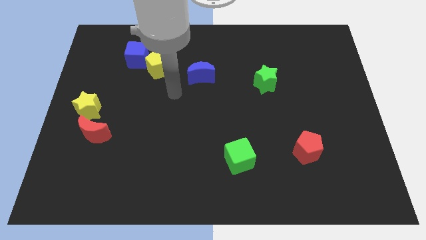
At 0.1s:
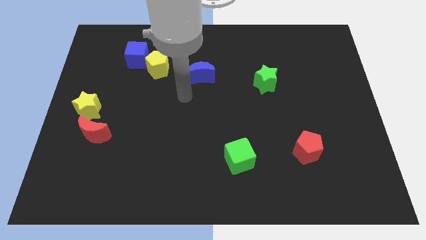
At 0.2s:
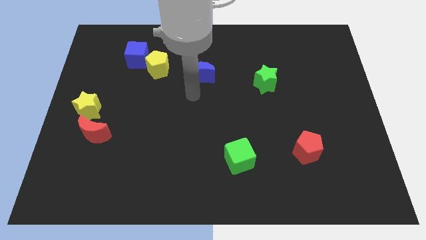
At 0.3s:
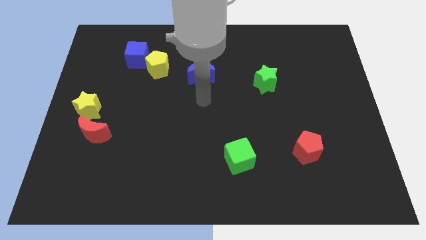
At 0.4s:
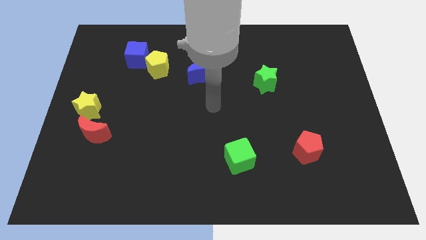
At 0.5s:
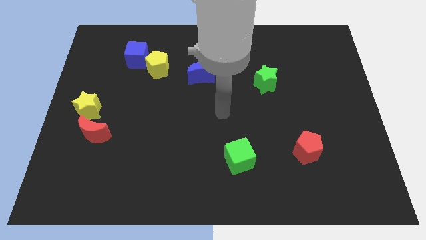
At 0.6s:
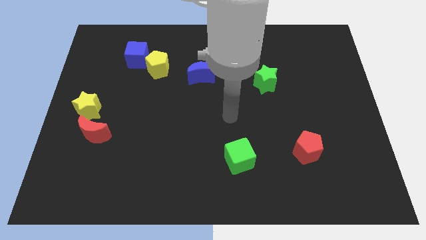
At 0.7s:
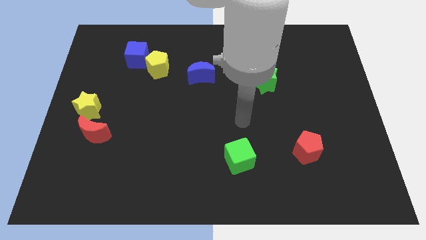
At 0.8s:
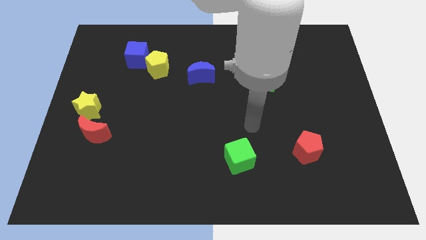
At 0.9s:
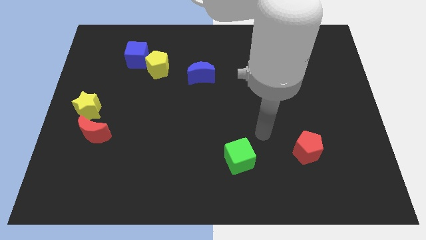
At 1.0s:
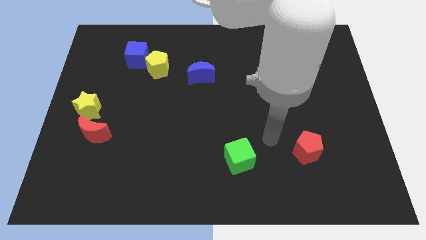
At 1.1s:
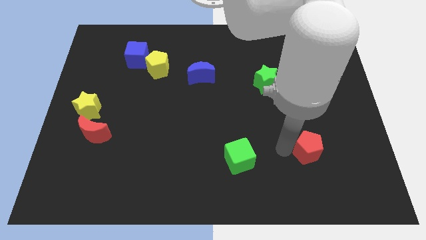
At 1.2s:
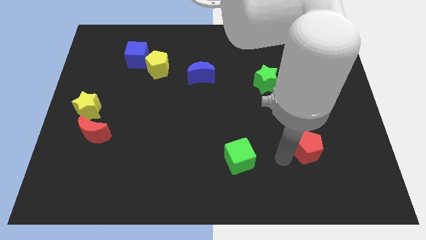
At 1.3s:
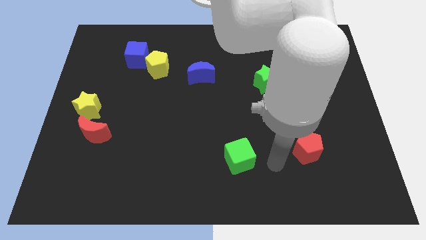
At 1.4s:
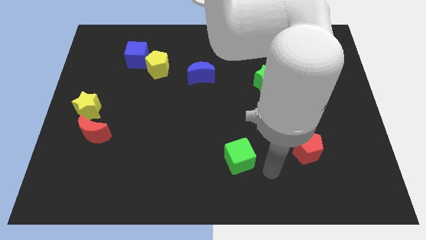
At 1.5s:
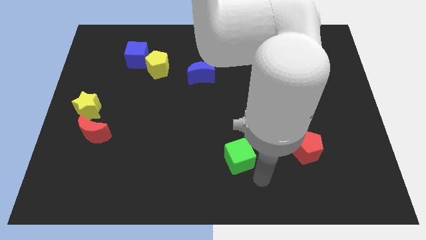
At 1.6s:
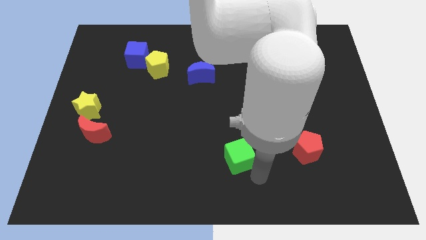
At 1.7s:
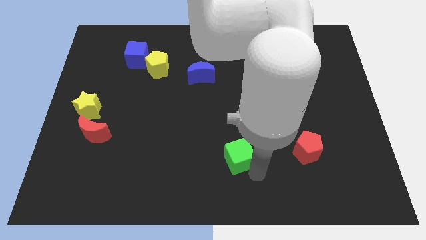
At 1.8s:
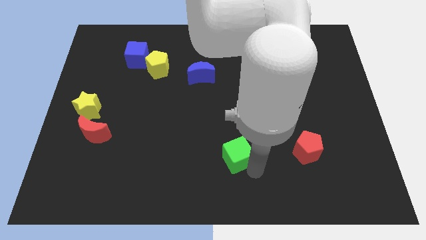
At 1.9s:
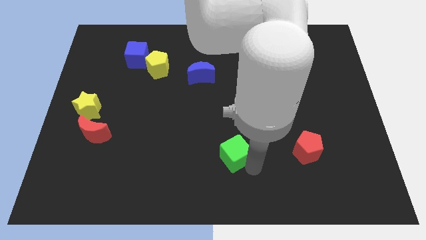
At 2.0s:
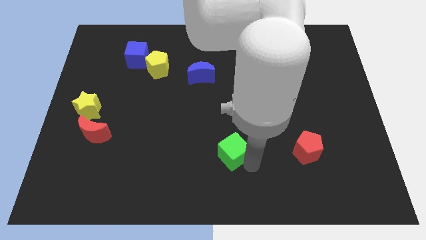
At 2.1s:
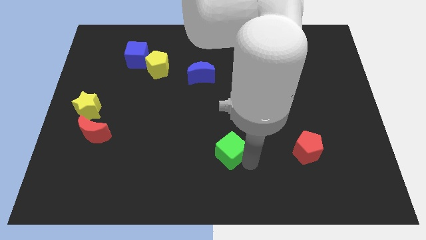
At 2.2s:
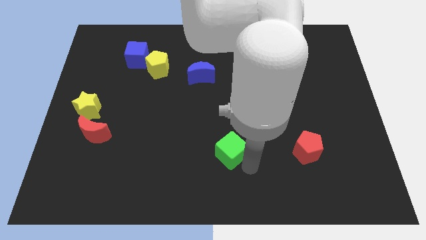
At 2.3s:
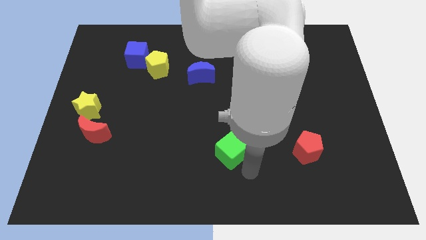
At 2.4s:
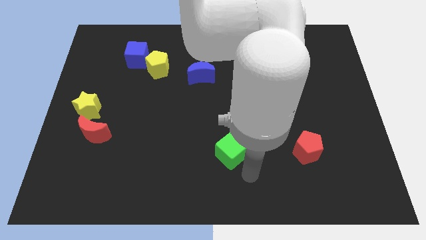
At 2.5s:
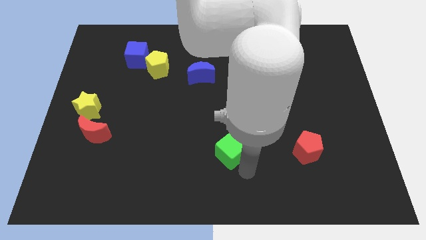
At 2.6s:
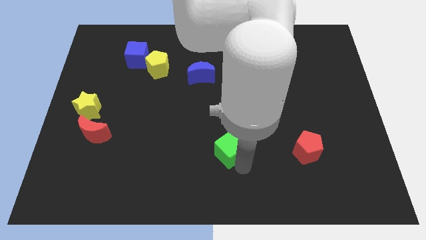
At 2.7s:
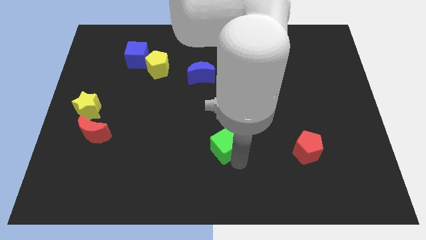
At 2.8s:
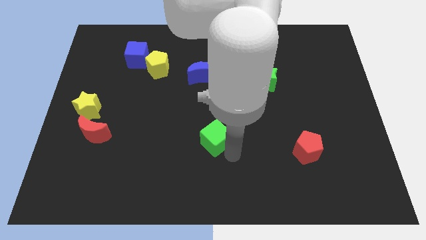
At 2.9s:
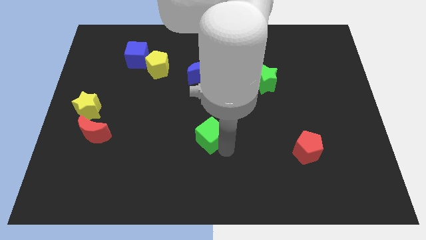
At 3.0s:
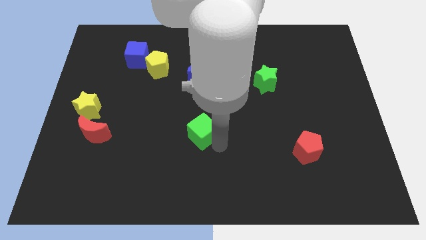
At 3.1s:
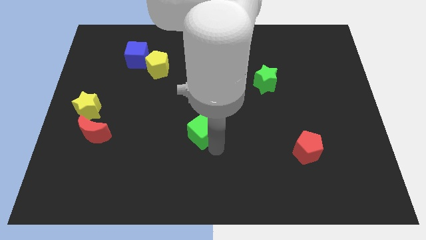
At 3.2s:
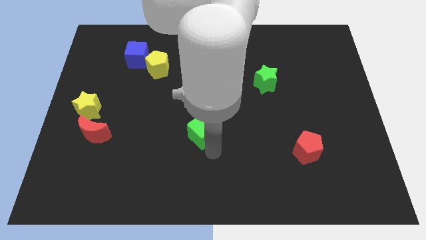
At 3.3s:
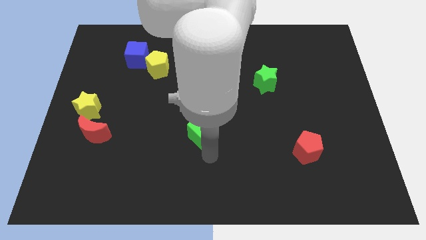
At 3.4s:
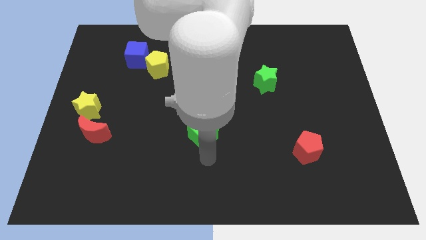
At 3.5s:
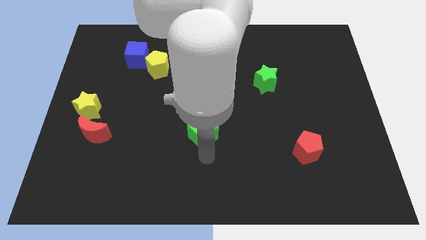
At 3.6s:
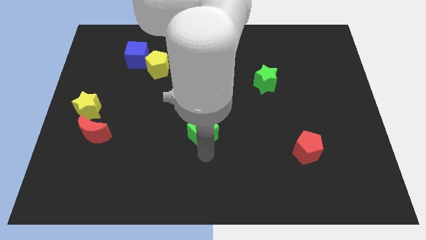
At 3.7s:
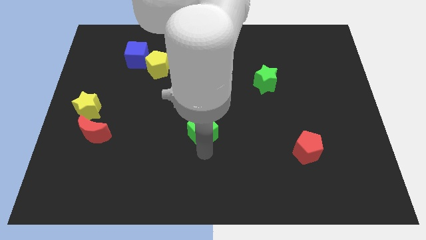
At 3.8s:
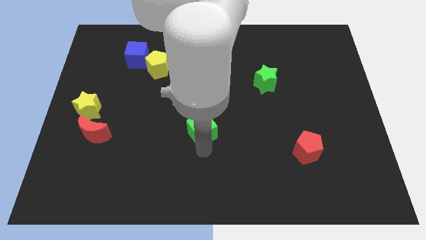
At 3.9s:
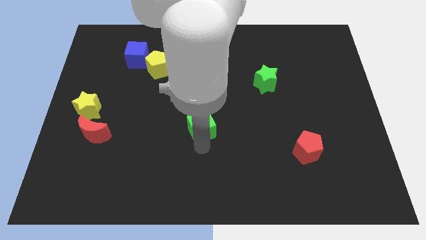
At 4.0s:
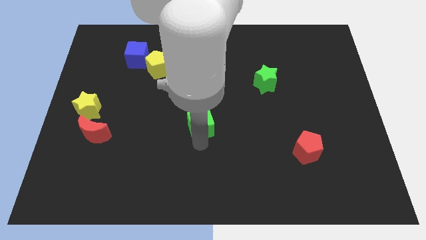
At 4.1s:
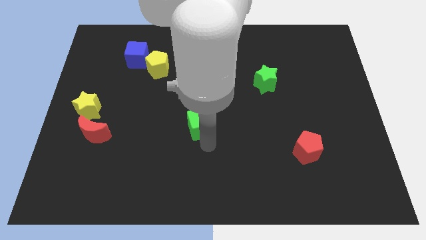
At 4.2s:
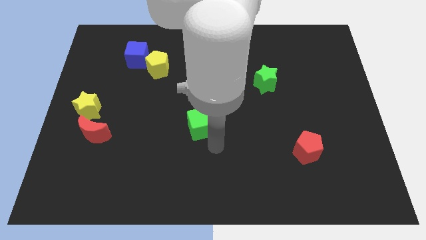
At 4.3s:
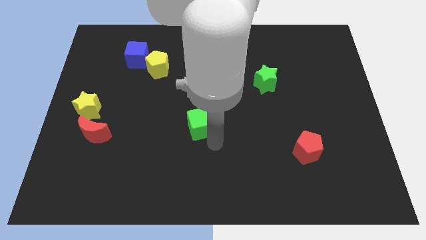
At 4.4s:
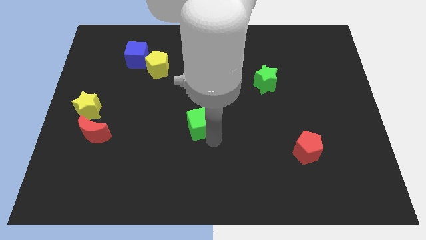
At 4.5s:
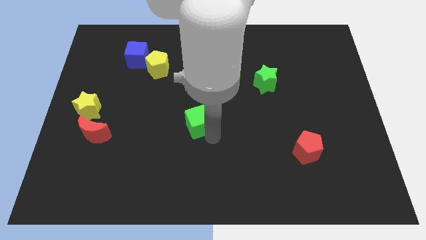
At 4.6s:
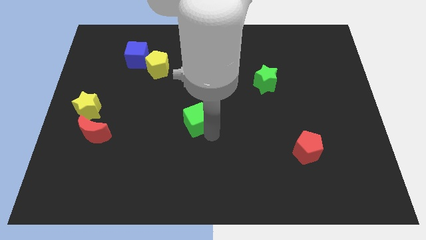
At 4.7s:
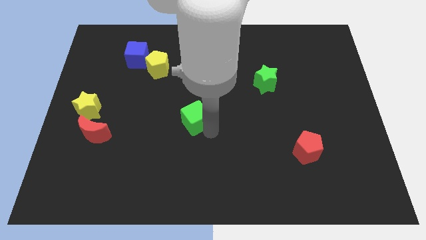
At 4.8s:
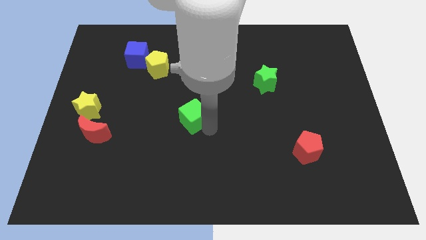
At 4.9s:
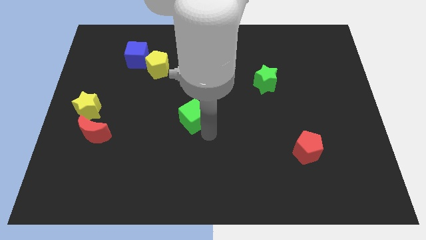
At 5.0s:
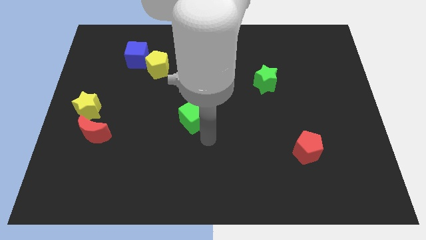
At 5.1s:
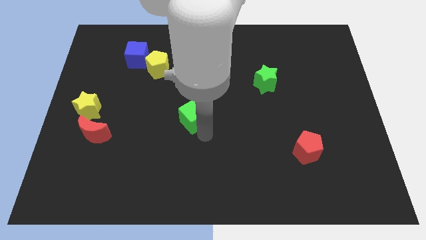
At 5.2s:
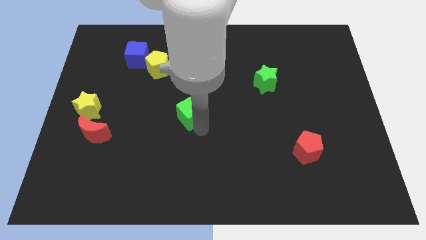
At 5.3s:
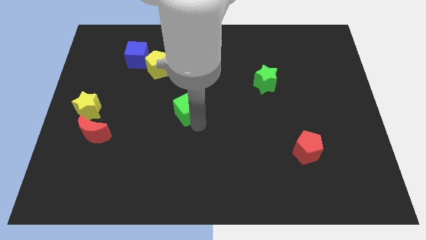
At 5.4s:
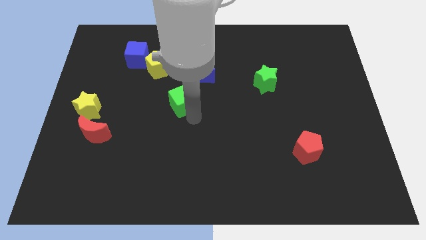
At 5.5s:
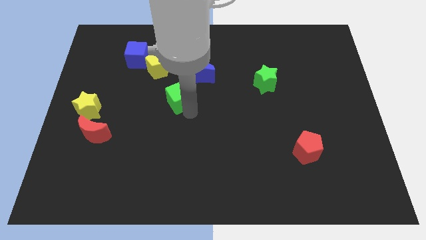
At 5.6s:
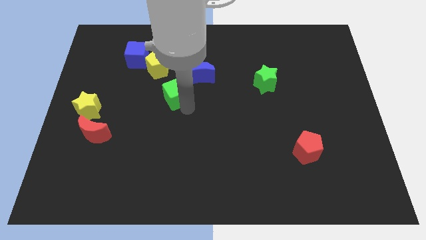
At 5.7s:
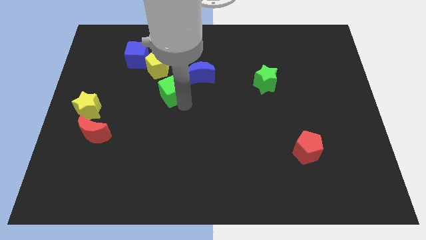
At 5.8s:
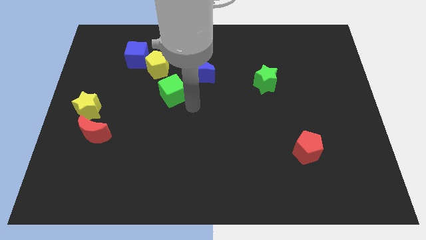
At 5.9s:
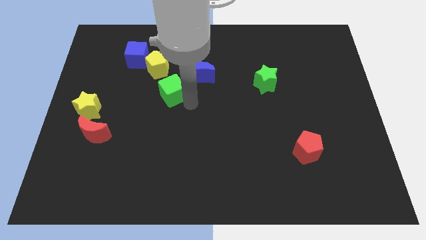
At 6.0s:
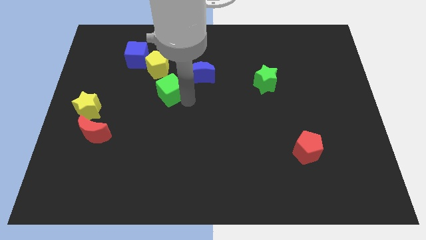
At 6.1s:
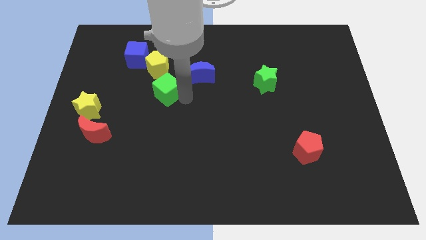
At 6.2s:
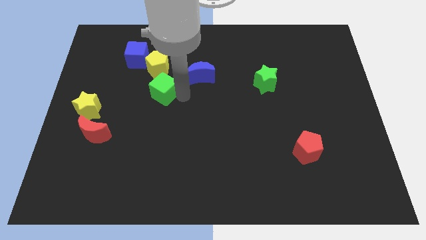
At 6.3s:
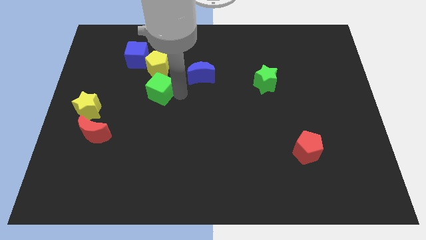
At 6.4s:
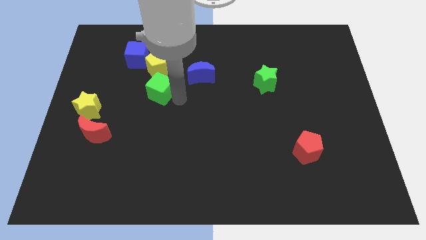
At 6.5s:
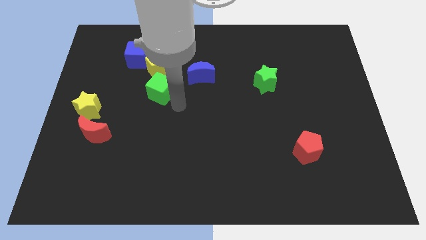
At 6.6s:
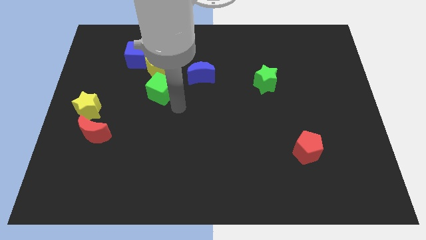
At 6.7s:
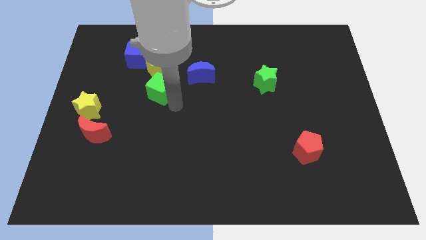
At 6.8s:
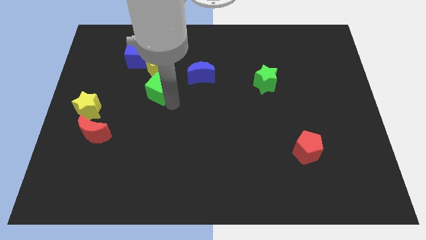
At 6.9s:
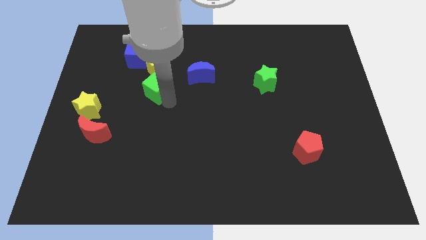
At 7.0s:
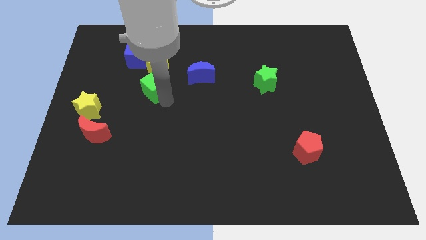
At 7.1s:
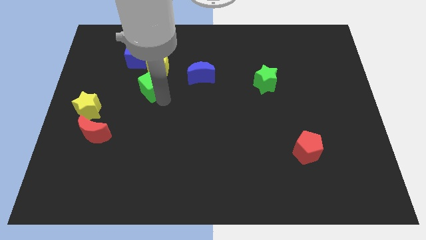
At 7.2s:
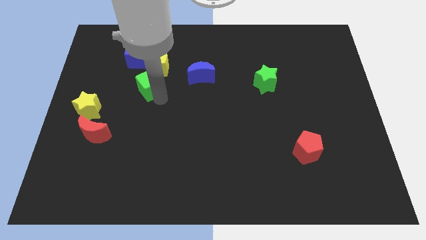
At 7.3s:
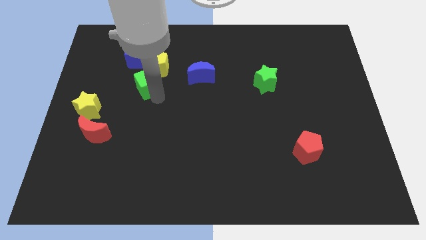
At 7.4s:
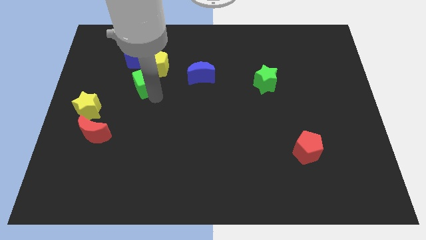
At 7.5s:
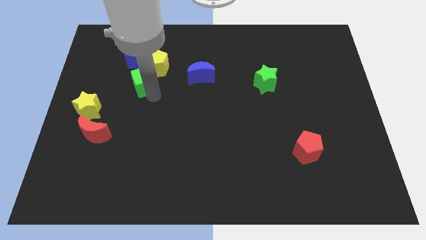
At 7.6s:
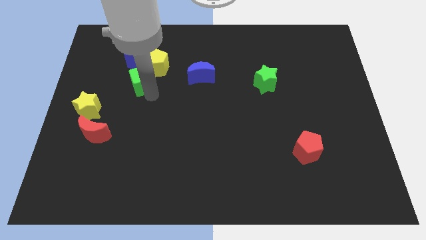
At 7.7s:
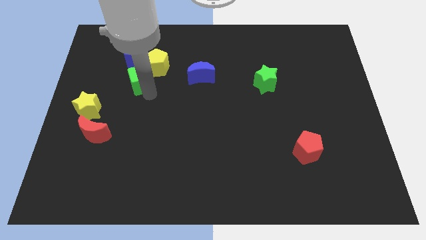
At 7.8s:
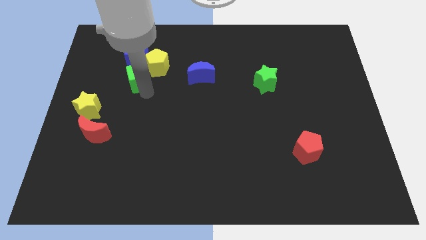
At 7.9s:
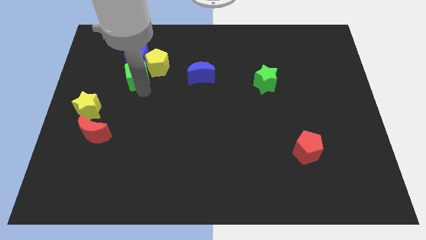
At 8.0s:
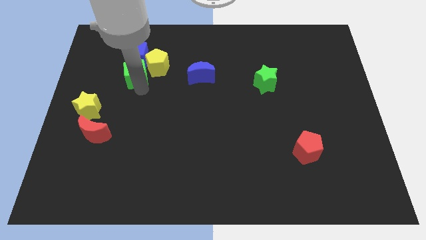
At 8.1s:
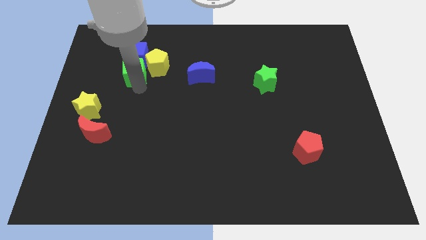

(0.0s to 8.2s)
put the green cube next to the blue cube
